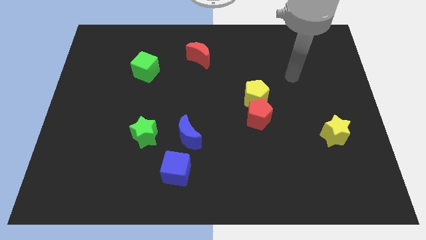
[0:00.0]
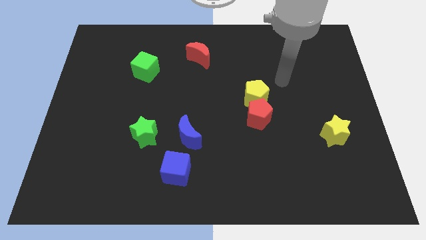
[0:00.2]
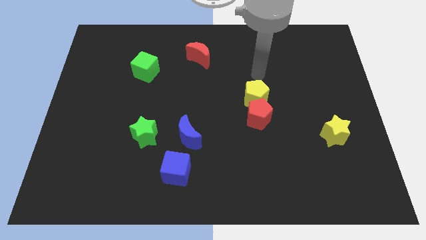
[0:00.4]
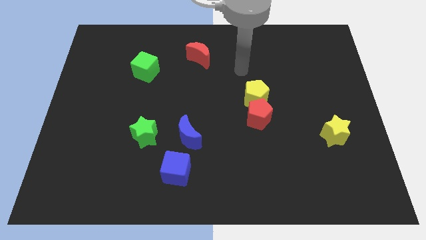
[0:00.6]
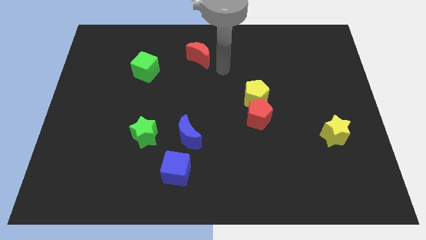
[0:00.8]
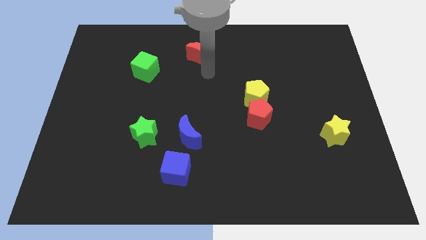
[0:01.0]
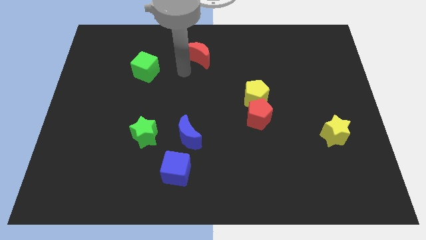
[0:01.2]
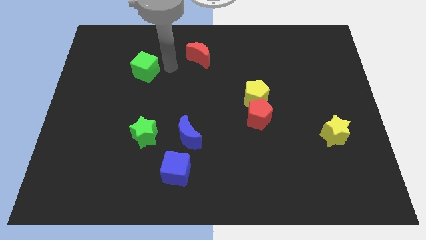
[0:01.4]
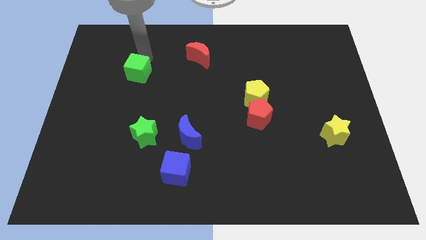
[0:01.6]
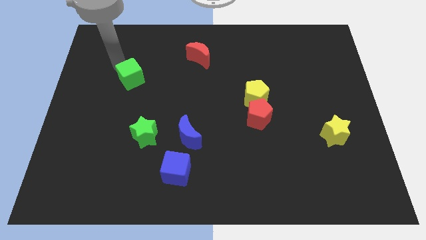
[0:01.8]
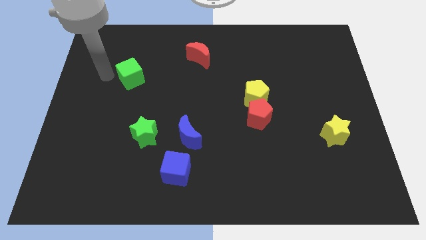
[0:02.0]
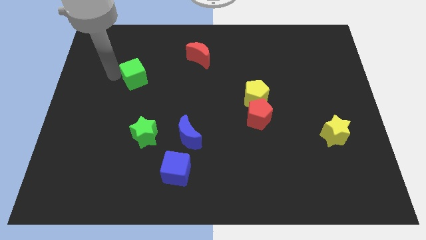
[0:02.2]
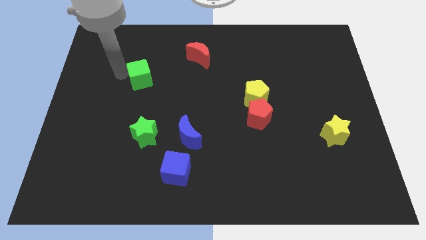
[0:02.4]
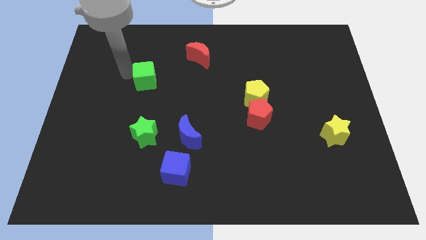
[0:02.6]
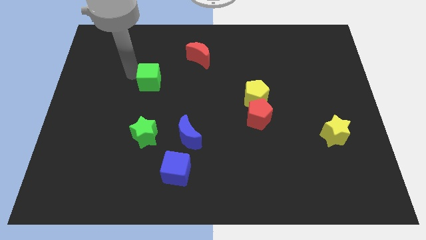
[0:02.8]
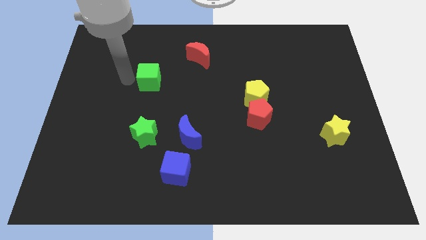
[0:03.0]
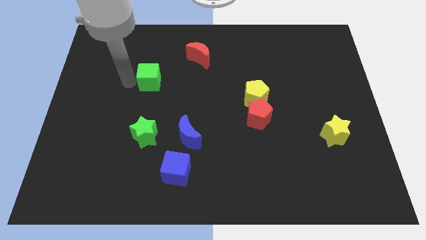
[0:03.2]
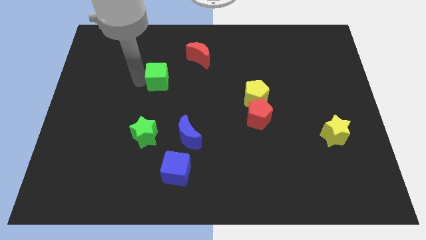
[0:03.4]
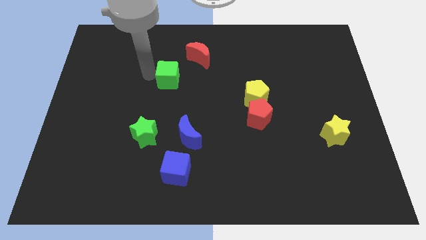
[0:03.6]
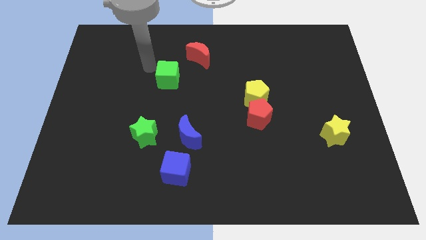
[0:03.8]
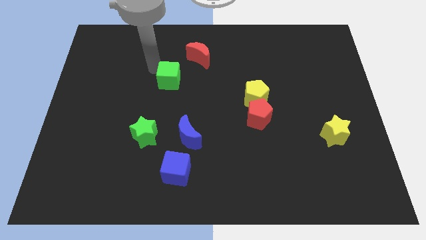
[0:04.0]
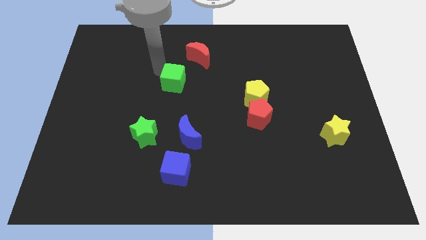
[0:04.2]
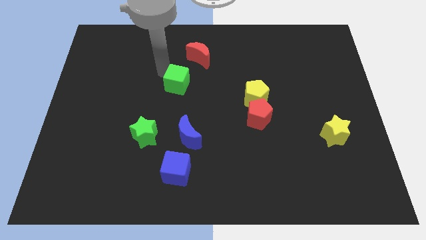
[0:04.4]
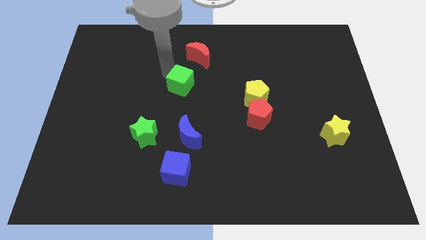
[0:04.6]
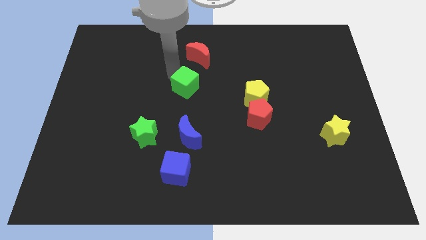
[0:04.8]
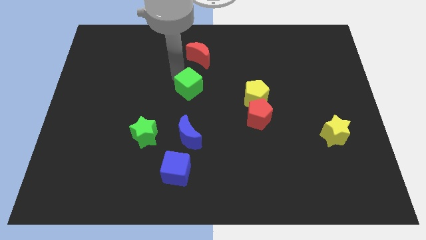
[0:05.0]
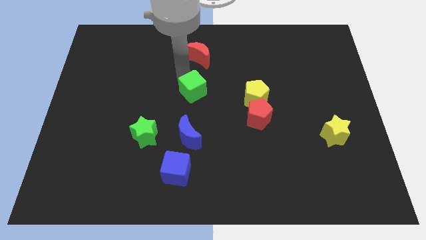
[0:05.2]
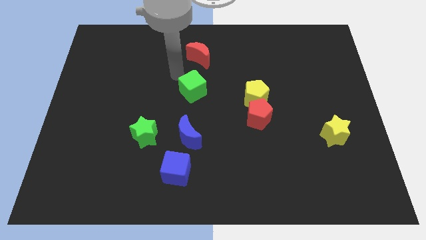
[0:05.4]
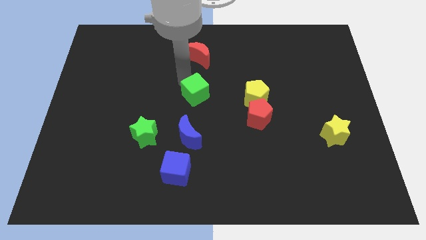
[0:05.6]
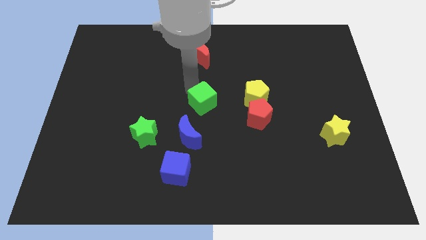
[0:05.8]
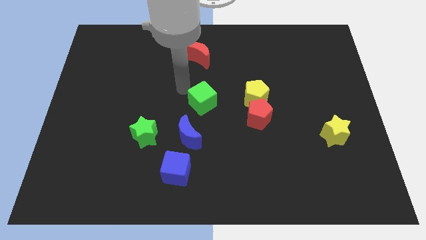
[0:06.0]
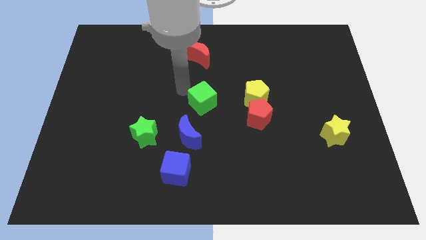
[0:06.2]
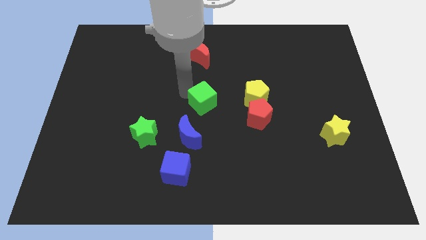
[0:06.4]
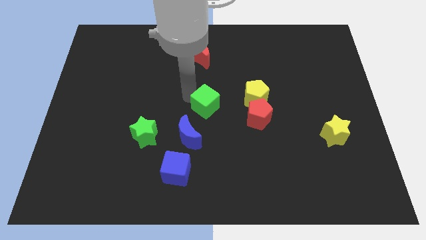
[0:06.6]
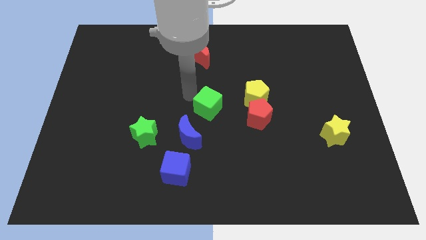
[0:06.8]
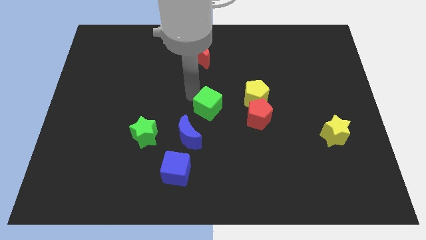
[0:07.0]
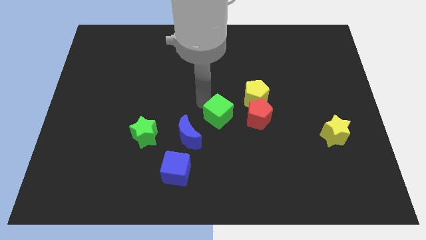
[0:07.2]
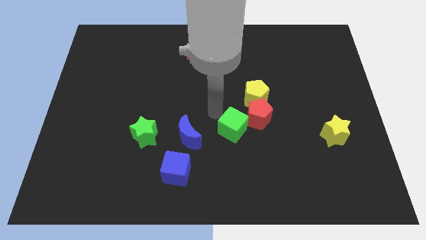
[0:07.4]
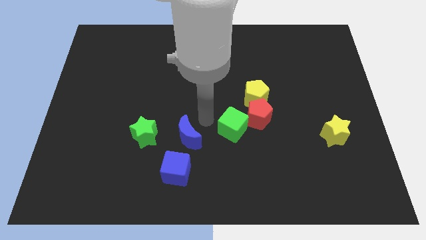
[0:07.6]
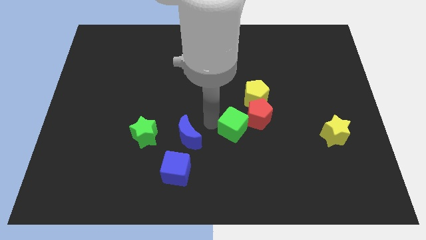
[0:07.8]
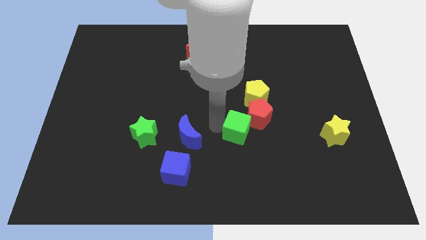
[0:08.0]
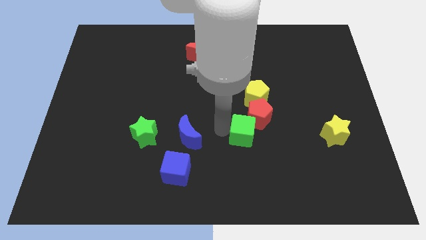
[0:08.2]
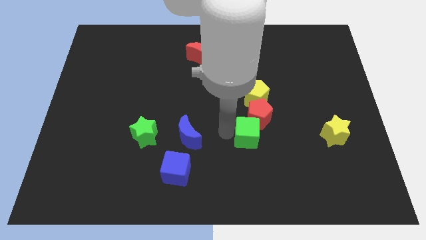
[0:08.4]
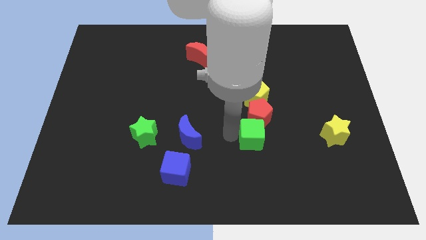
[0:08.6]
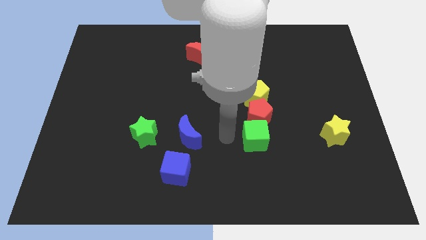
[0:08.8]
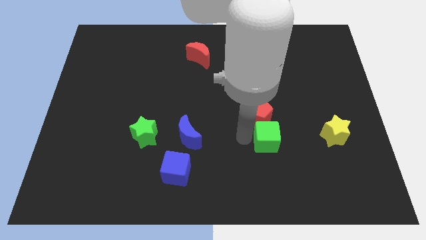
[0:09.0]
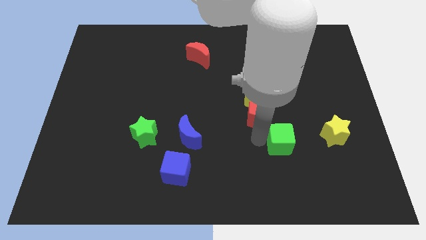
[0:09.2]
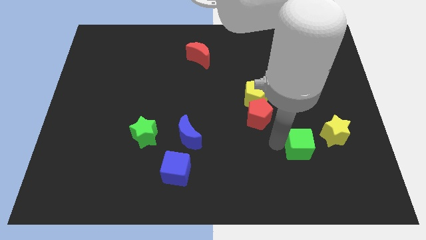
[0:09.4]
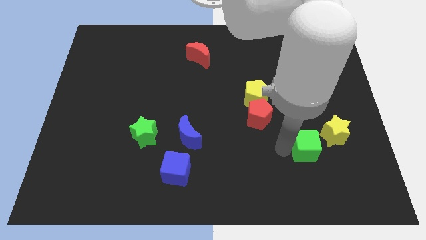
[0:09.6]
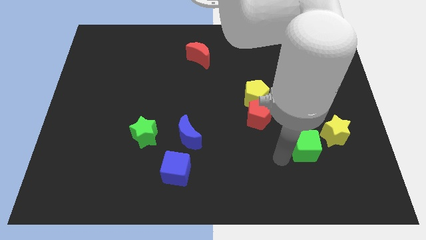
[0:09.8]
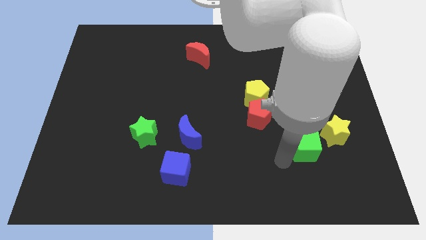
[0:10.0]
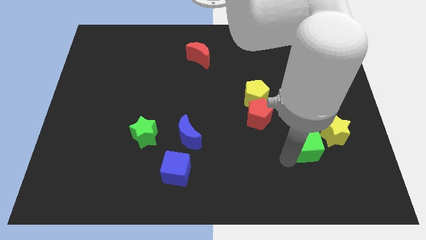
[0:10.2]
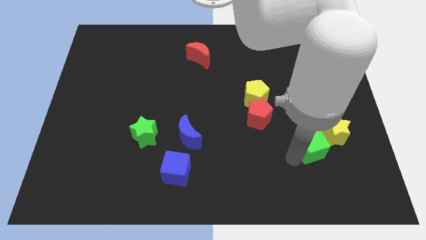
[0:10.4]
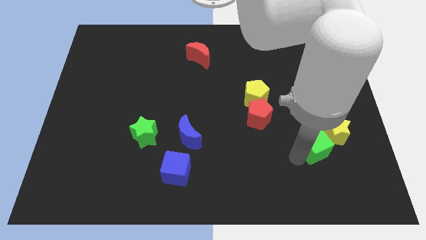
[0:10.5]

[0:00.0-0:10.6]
move the green cube to the yellow star

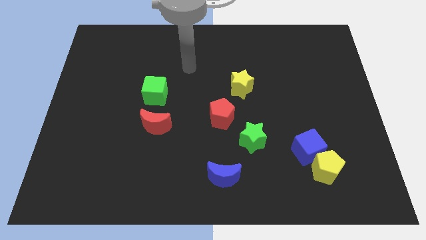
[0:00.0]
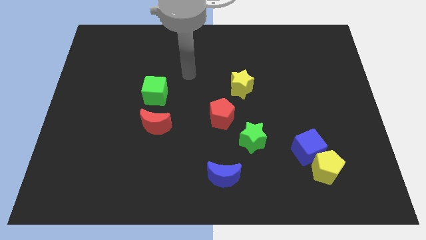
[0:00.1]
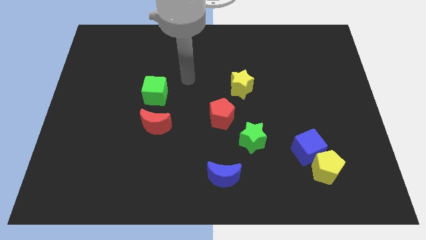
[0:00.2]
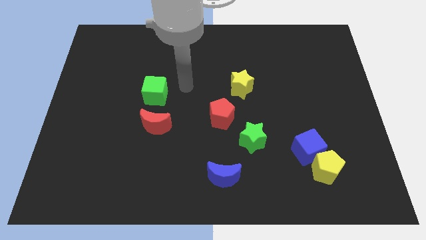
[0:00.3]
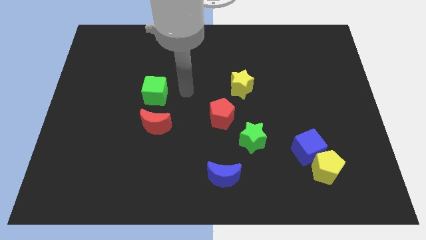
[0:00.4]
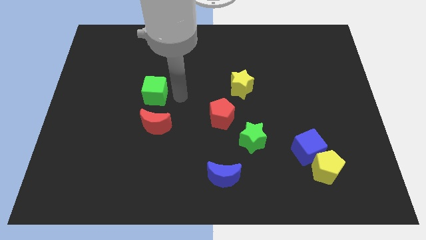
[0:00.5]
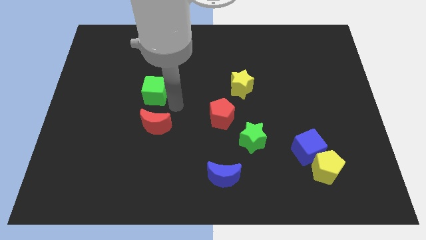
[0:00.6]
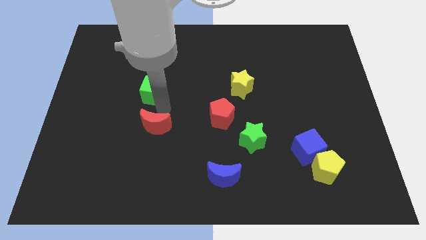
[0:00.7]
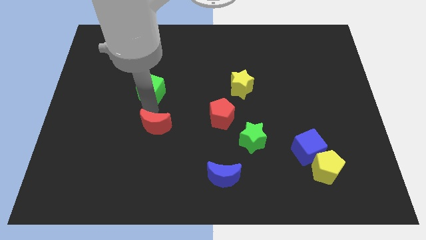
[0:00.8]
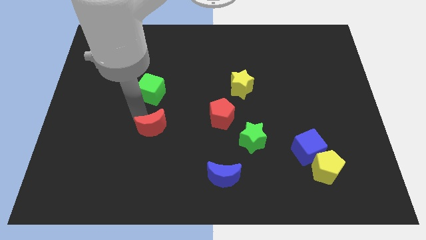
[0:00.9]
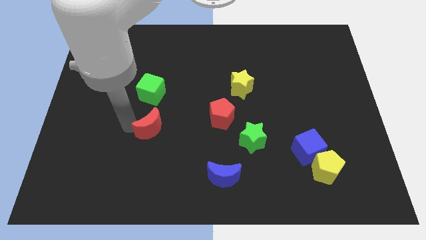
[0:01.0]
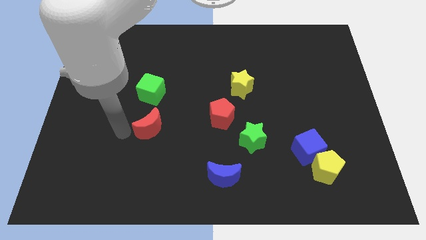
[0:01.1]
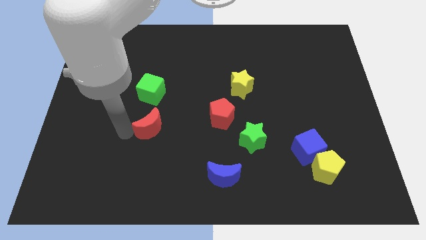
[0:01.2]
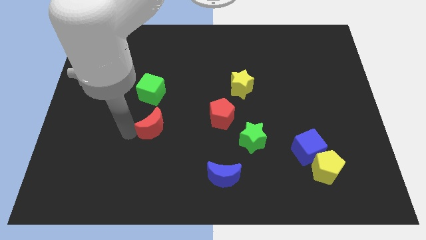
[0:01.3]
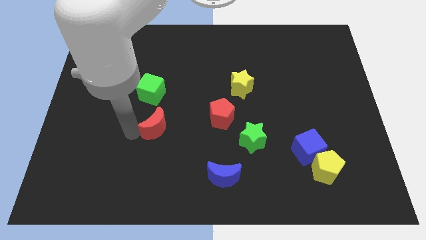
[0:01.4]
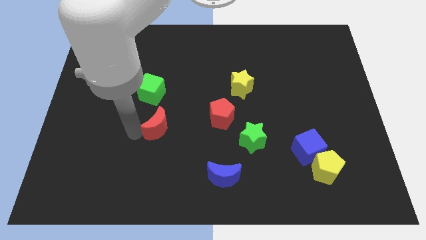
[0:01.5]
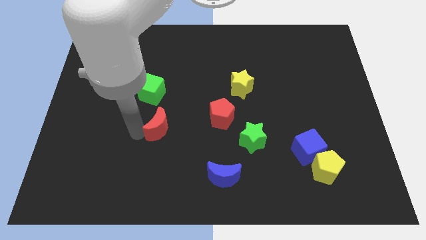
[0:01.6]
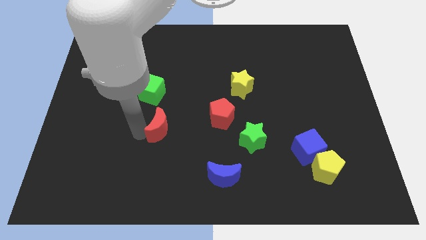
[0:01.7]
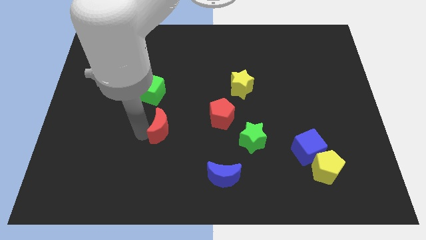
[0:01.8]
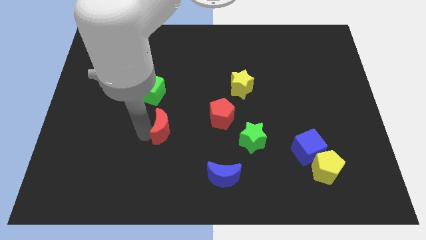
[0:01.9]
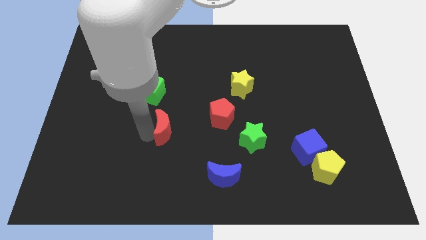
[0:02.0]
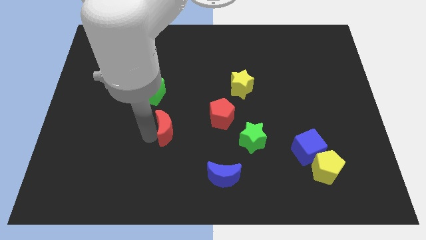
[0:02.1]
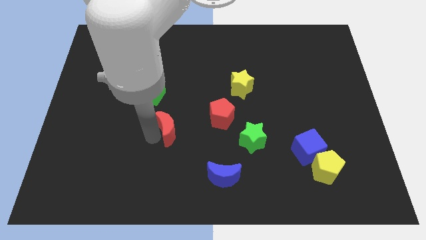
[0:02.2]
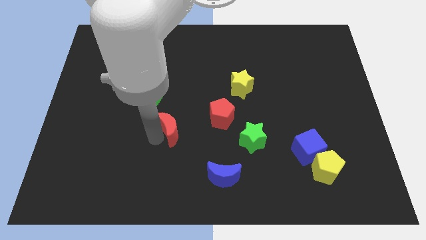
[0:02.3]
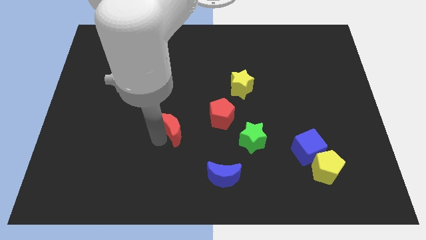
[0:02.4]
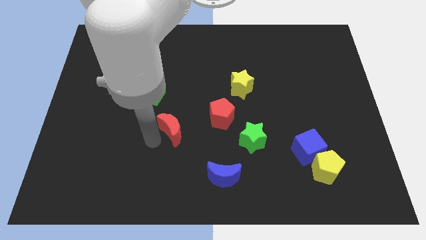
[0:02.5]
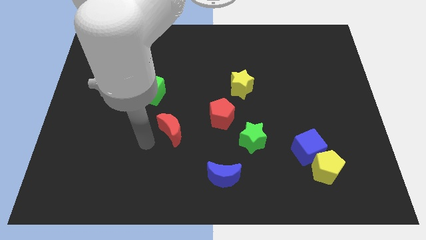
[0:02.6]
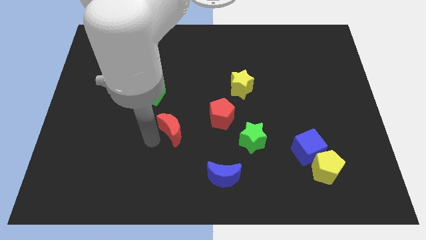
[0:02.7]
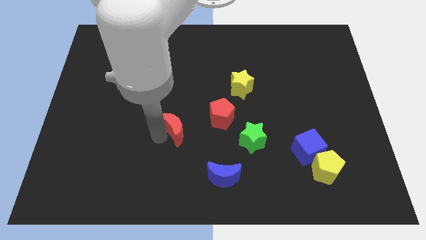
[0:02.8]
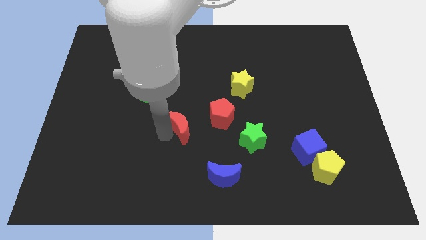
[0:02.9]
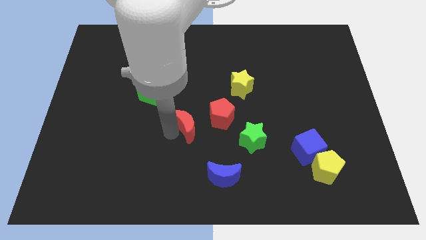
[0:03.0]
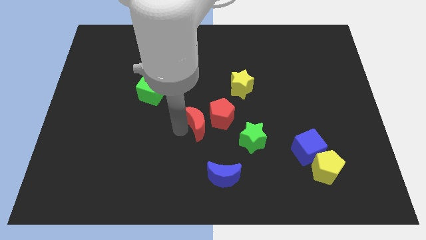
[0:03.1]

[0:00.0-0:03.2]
slide the red moon close to the red pentagon
